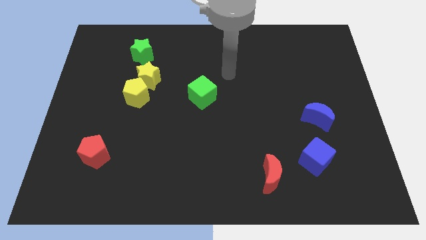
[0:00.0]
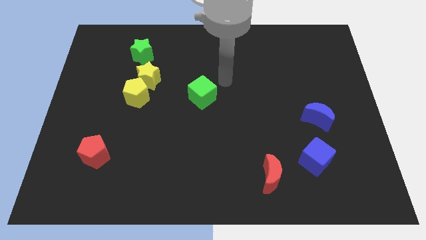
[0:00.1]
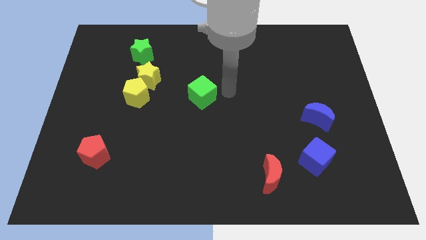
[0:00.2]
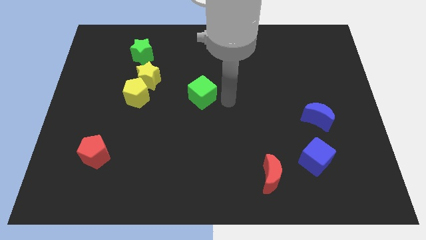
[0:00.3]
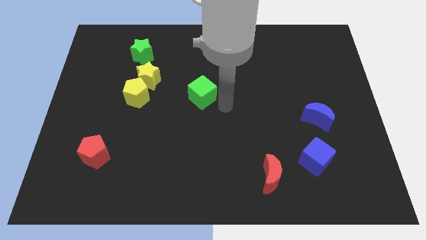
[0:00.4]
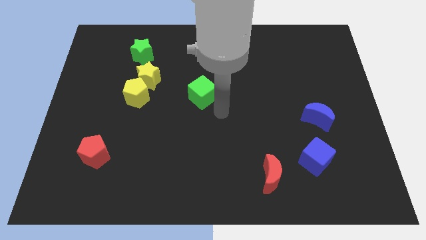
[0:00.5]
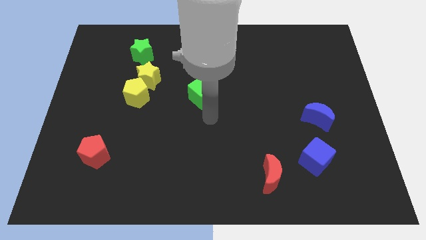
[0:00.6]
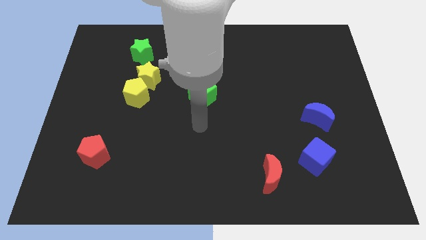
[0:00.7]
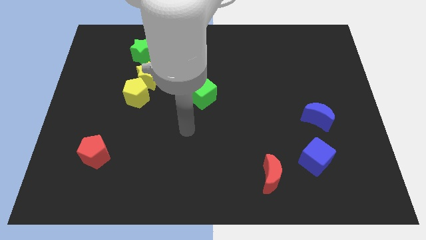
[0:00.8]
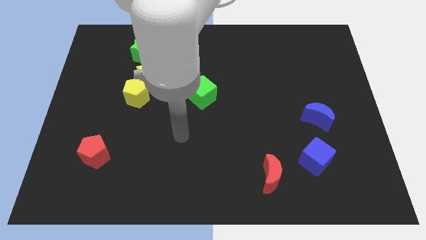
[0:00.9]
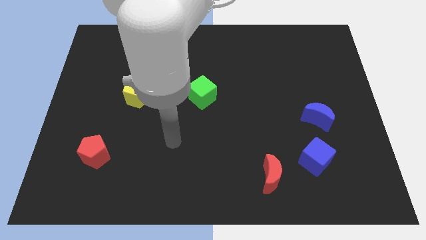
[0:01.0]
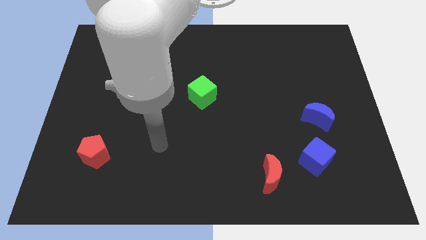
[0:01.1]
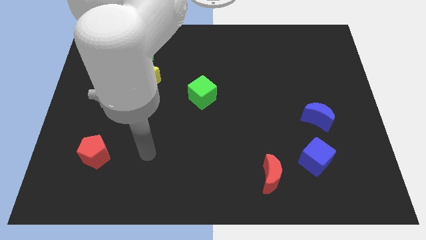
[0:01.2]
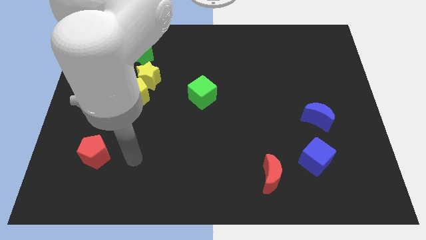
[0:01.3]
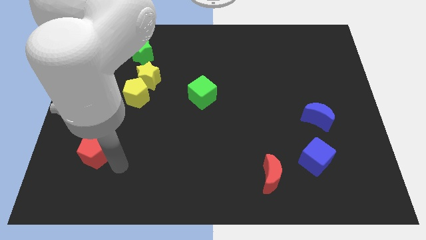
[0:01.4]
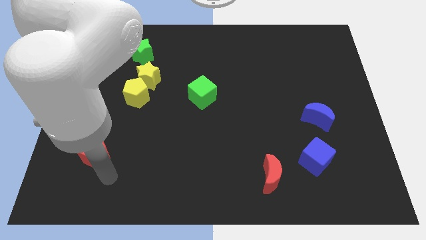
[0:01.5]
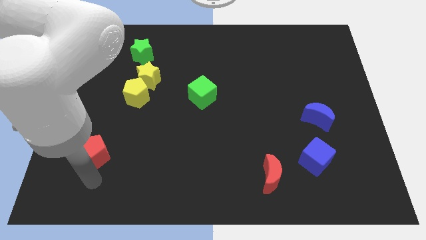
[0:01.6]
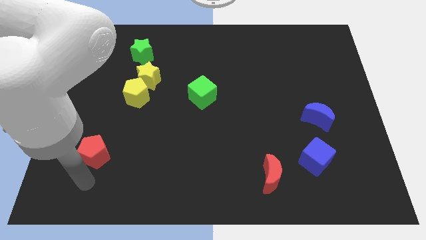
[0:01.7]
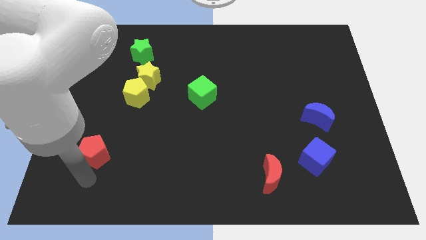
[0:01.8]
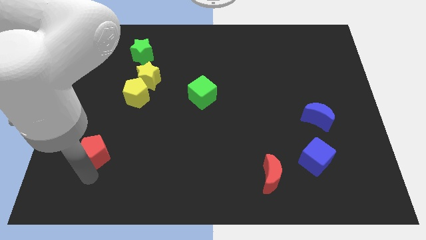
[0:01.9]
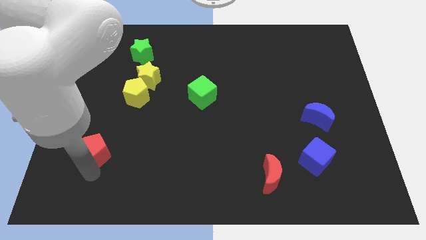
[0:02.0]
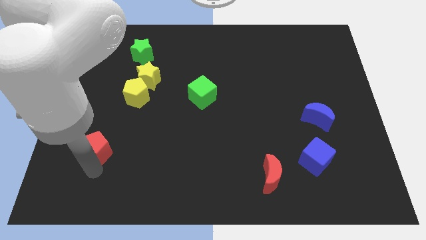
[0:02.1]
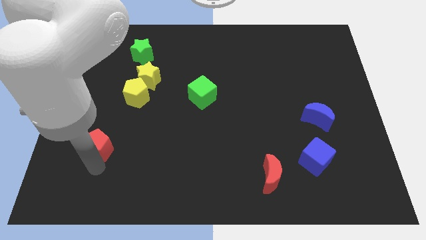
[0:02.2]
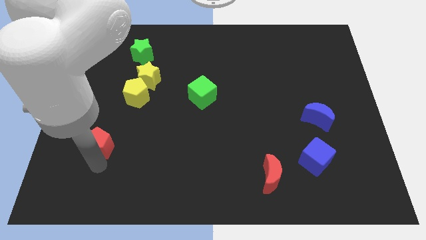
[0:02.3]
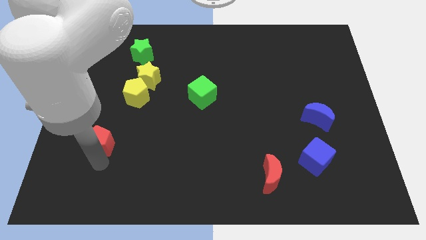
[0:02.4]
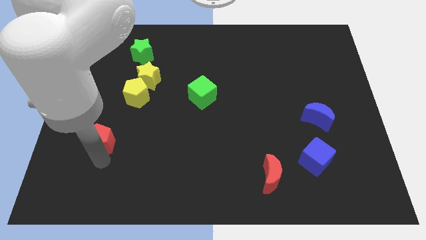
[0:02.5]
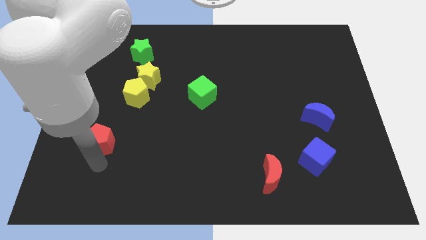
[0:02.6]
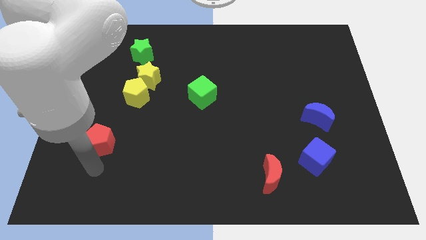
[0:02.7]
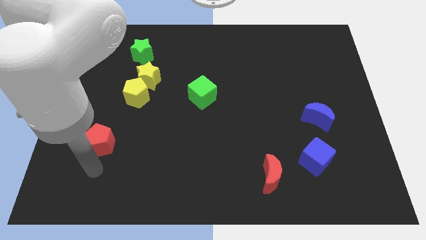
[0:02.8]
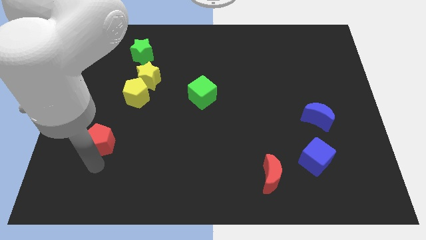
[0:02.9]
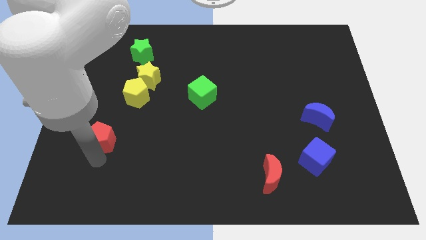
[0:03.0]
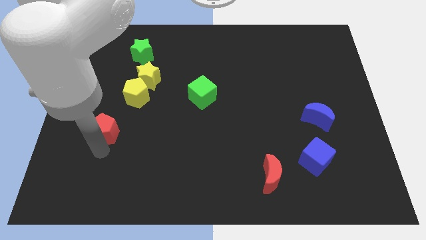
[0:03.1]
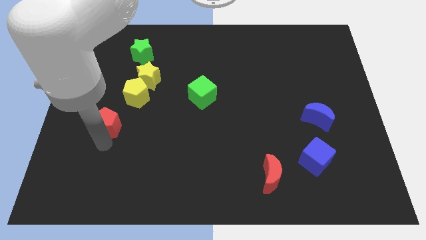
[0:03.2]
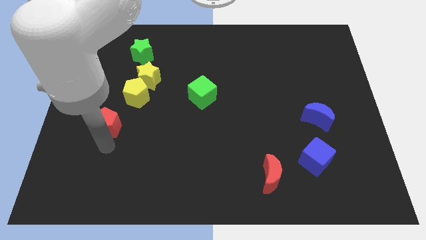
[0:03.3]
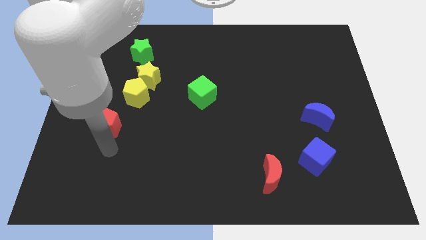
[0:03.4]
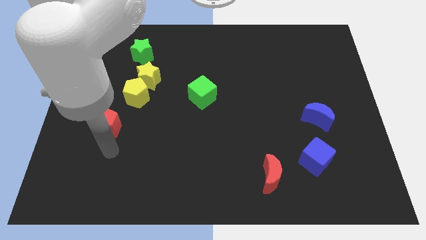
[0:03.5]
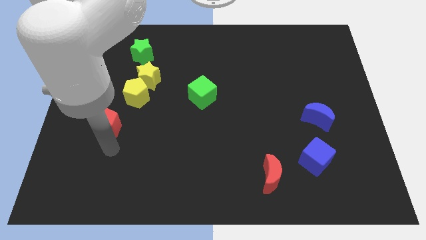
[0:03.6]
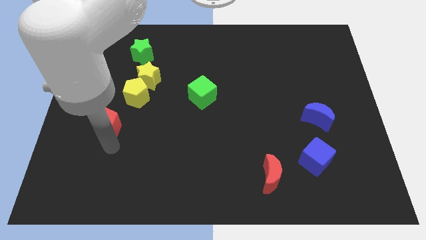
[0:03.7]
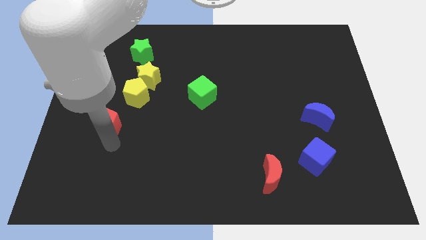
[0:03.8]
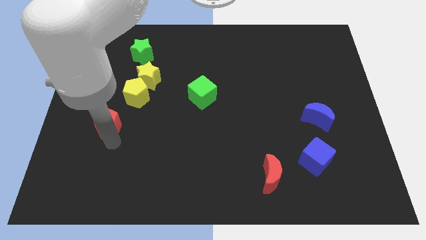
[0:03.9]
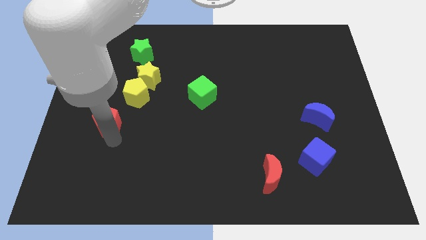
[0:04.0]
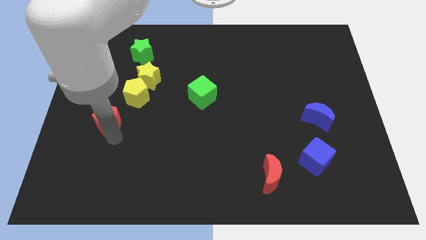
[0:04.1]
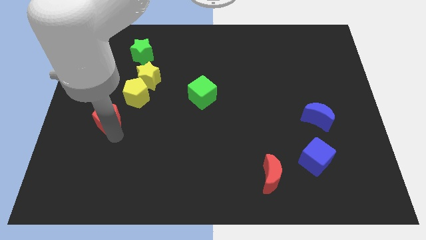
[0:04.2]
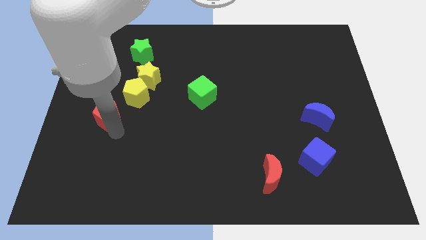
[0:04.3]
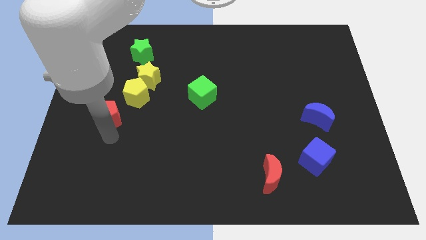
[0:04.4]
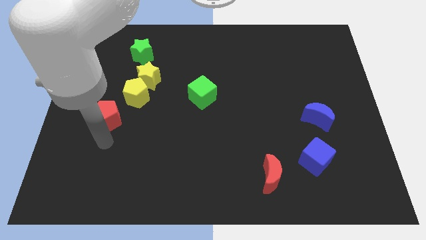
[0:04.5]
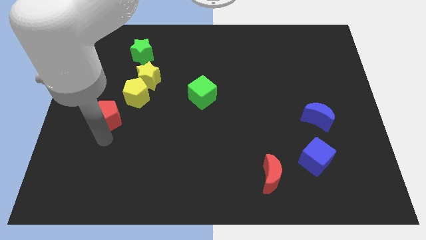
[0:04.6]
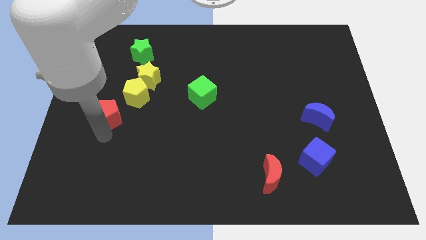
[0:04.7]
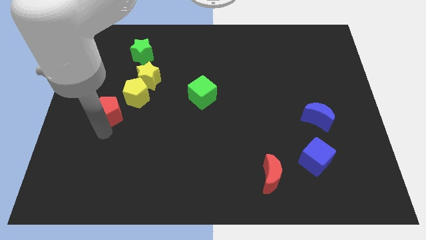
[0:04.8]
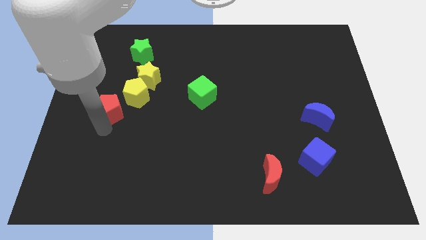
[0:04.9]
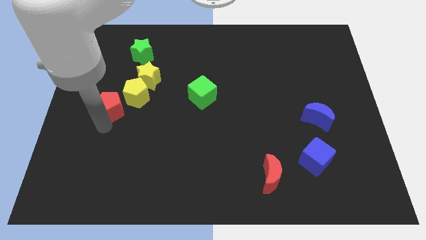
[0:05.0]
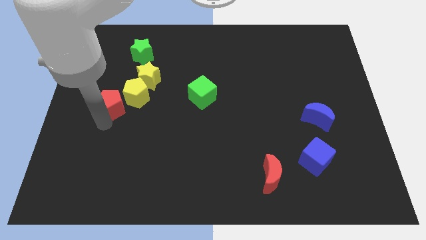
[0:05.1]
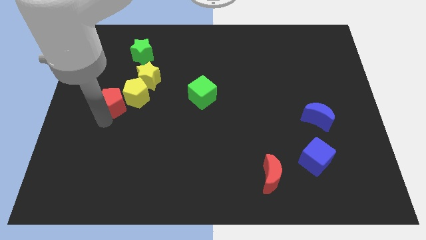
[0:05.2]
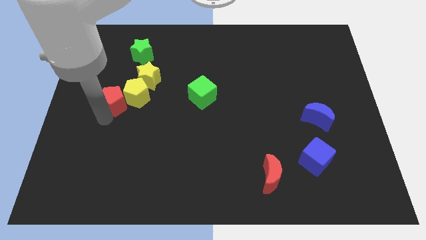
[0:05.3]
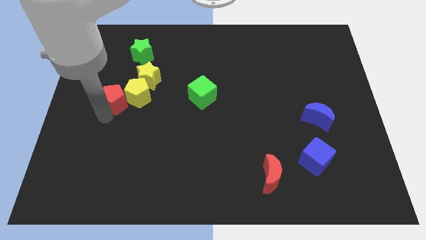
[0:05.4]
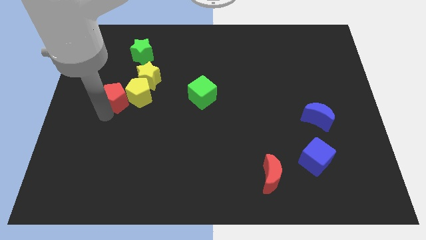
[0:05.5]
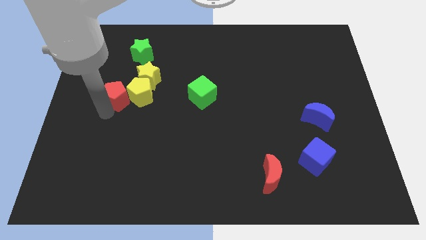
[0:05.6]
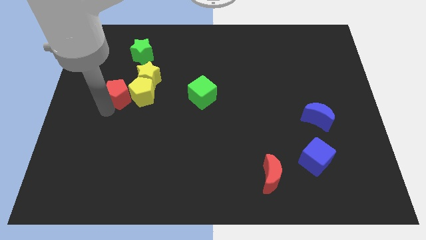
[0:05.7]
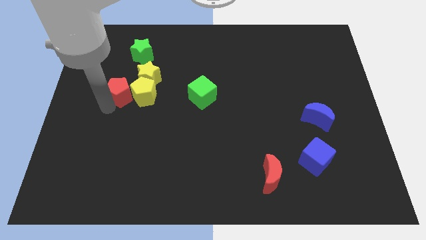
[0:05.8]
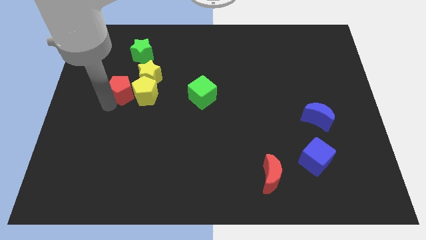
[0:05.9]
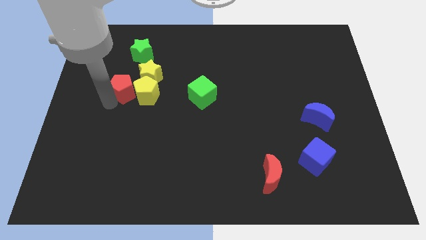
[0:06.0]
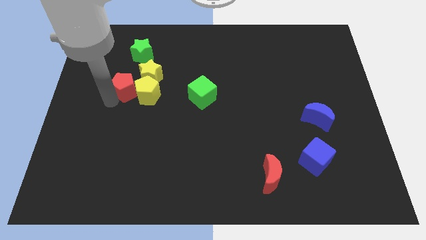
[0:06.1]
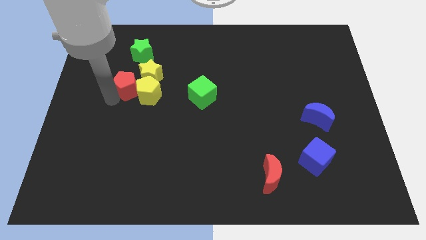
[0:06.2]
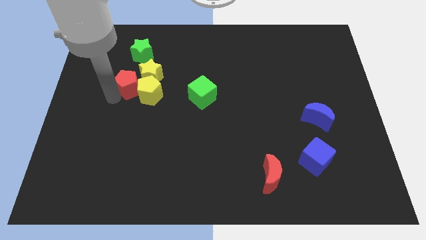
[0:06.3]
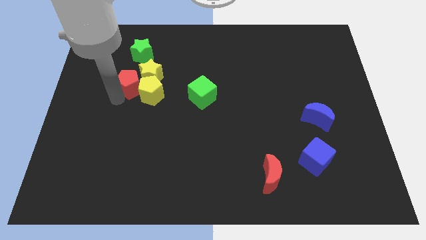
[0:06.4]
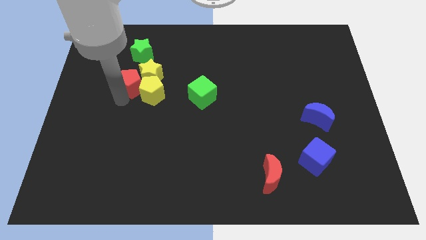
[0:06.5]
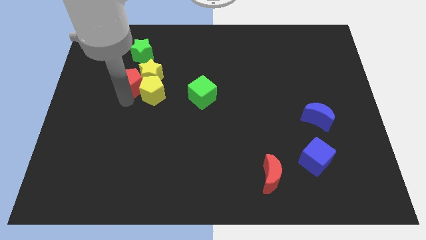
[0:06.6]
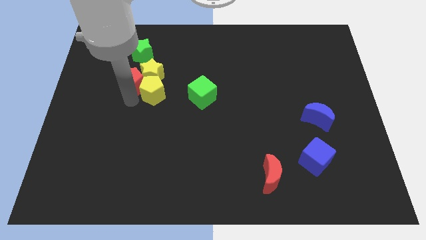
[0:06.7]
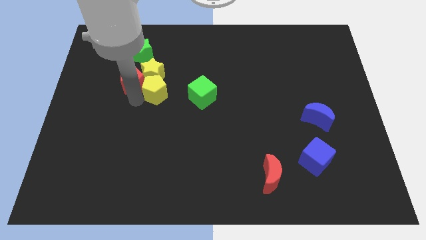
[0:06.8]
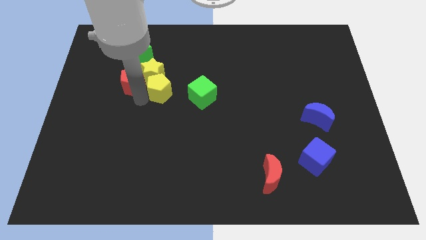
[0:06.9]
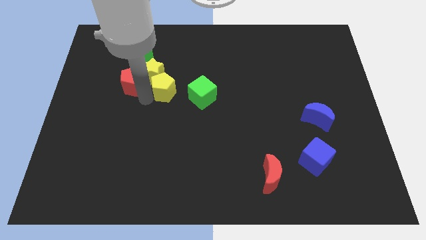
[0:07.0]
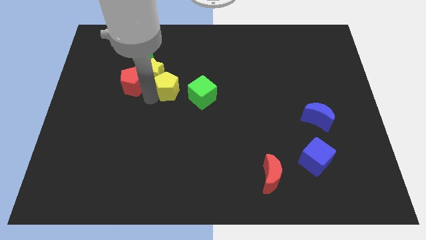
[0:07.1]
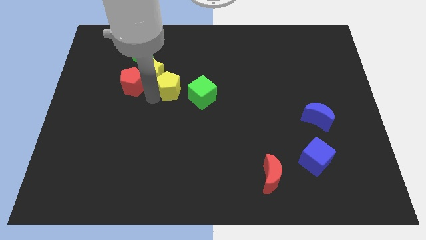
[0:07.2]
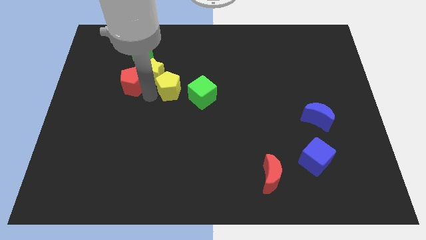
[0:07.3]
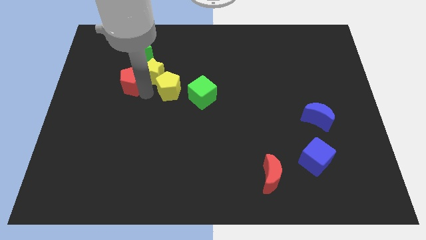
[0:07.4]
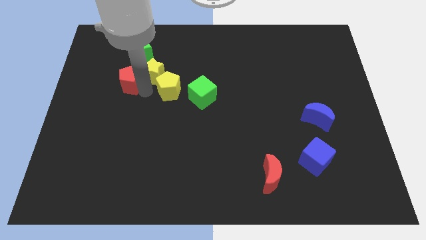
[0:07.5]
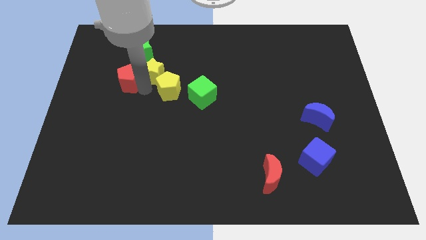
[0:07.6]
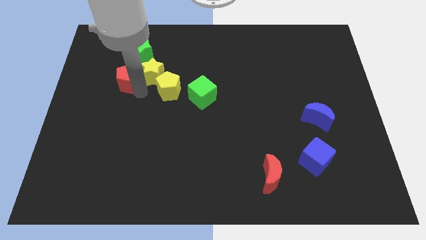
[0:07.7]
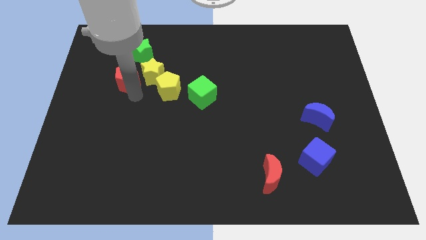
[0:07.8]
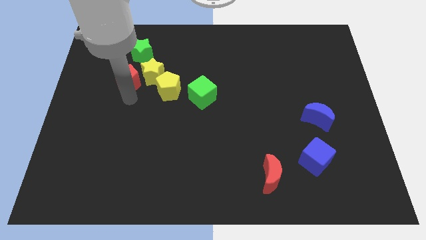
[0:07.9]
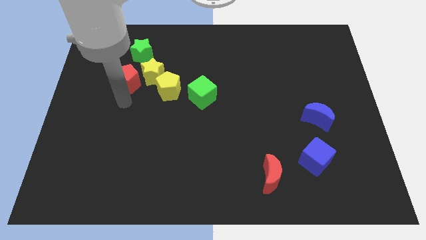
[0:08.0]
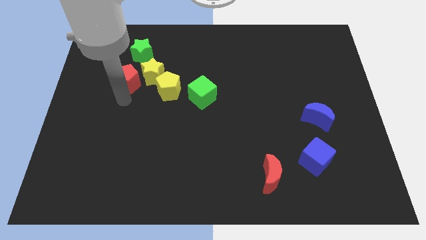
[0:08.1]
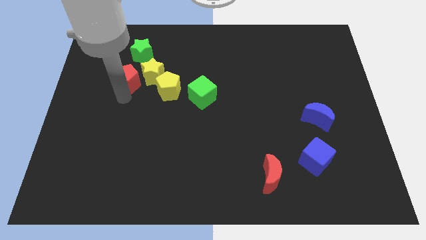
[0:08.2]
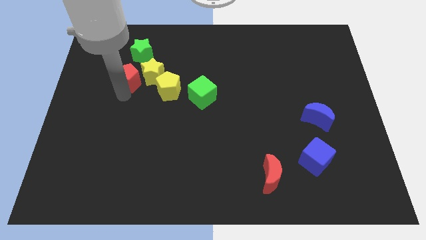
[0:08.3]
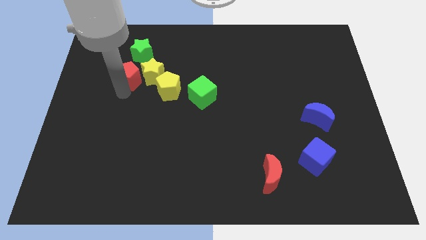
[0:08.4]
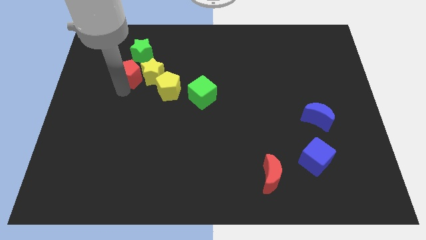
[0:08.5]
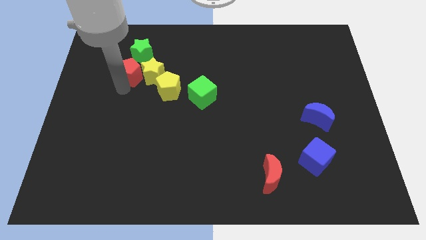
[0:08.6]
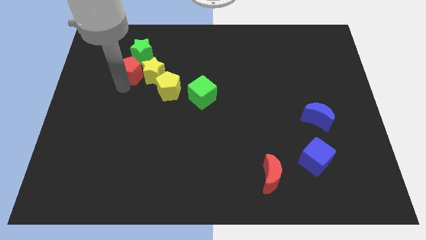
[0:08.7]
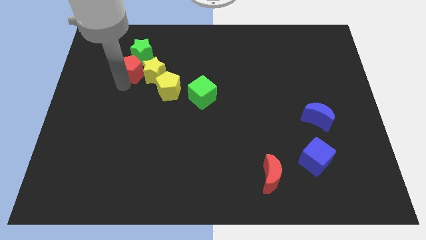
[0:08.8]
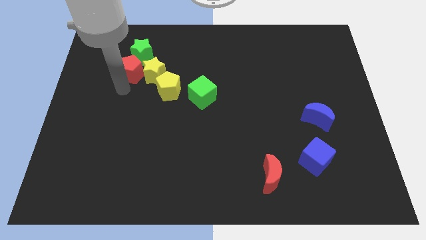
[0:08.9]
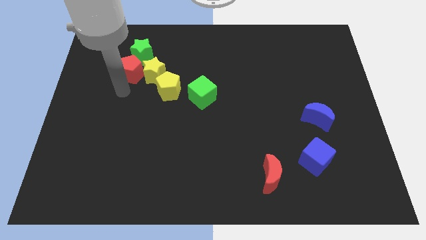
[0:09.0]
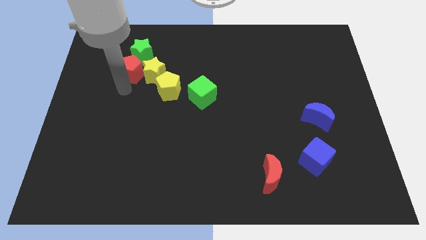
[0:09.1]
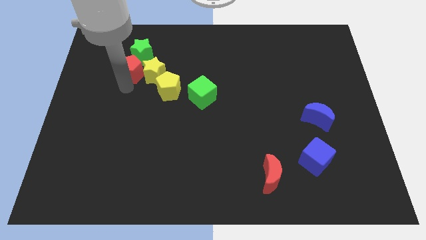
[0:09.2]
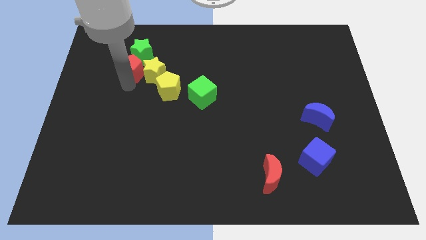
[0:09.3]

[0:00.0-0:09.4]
move the red pentagon to the green star
